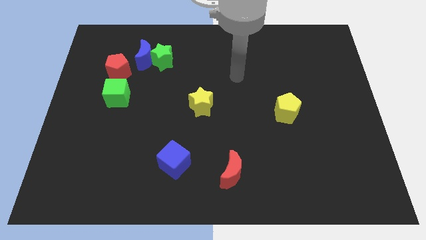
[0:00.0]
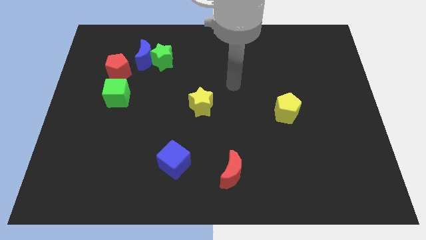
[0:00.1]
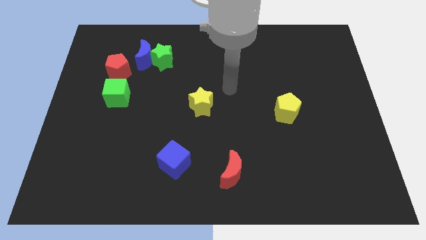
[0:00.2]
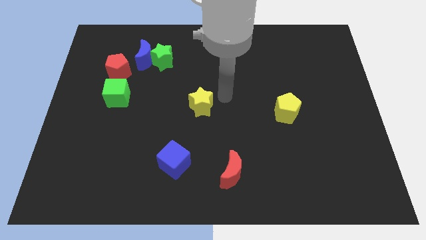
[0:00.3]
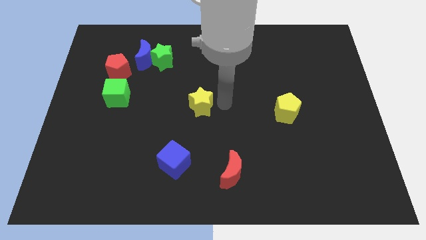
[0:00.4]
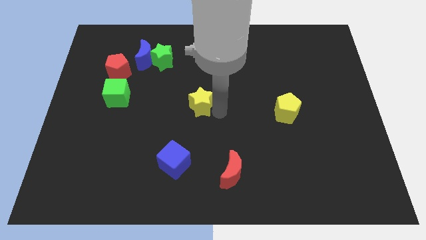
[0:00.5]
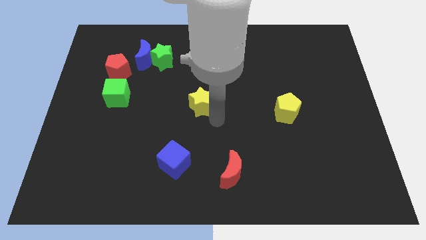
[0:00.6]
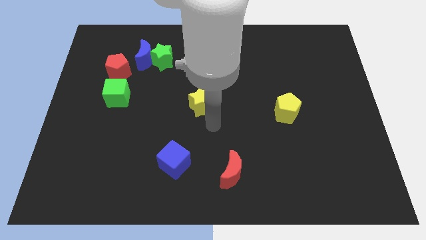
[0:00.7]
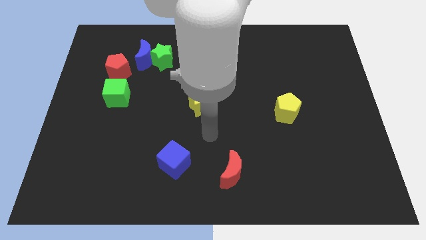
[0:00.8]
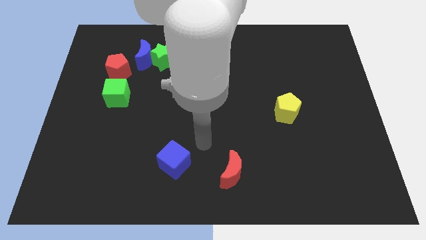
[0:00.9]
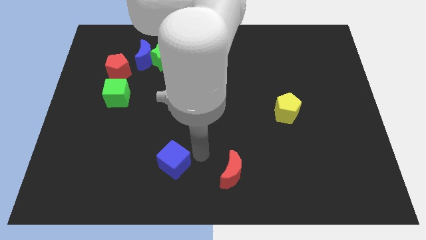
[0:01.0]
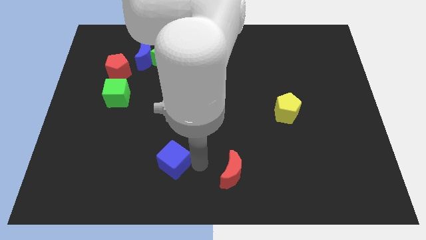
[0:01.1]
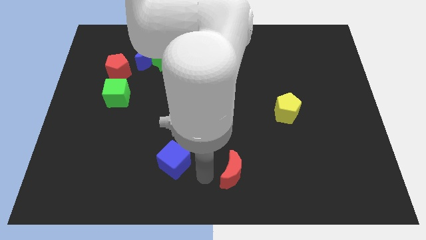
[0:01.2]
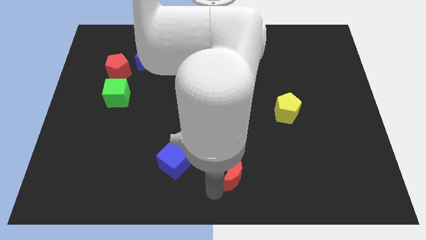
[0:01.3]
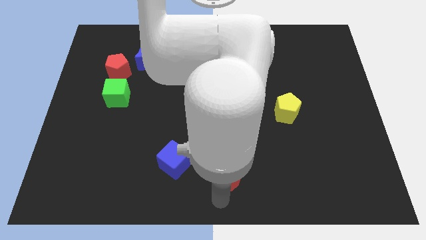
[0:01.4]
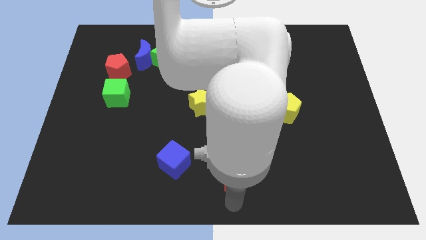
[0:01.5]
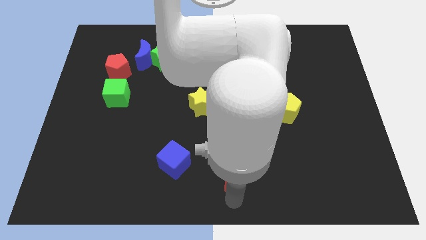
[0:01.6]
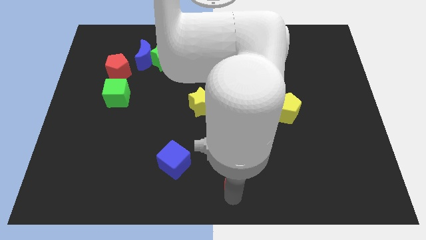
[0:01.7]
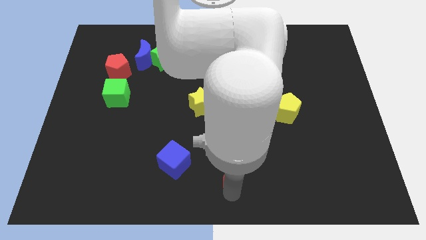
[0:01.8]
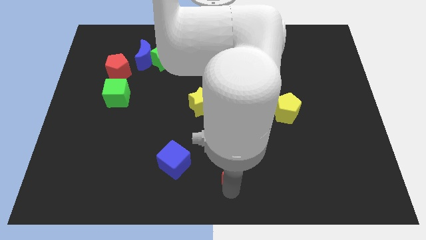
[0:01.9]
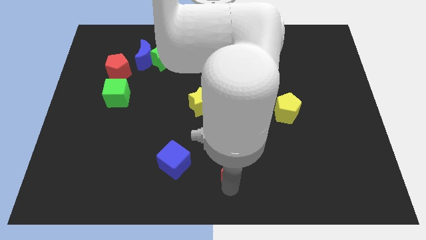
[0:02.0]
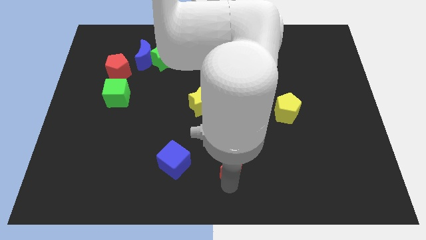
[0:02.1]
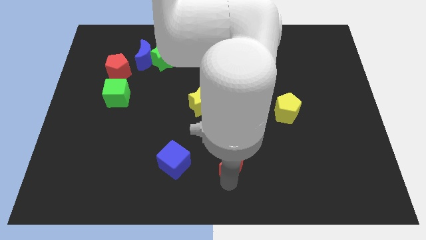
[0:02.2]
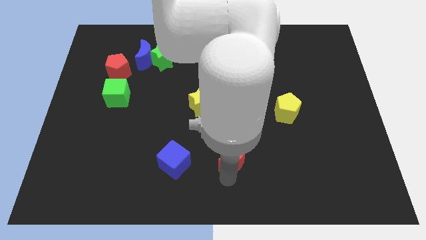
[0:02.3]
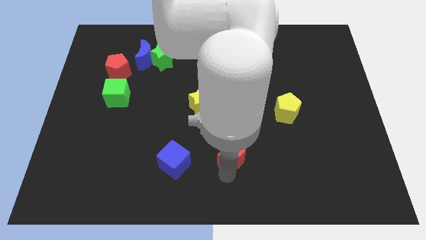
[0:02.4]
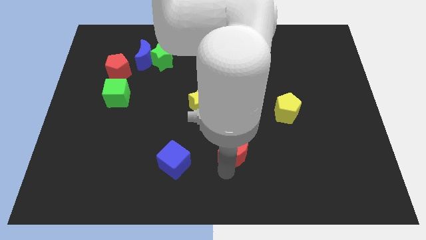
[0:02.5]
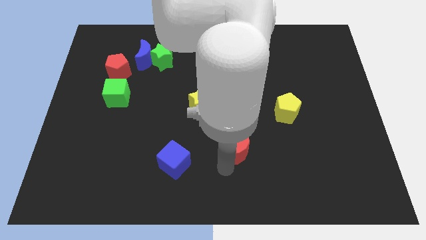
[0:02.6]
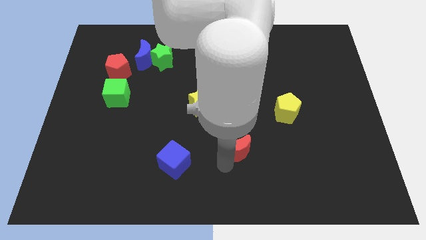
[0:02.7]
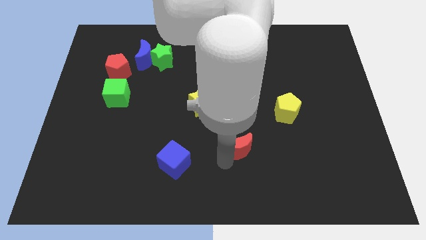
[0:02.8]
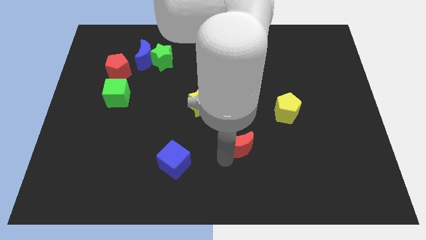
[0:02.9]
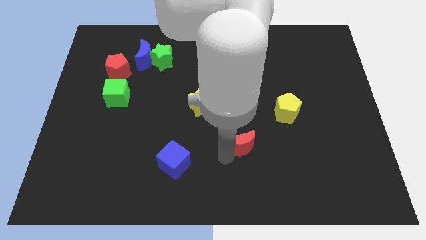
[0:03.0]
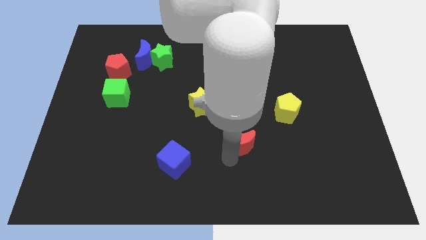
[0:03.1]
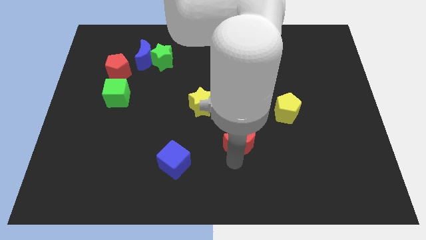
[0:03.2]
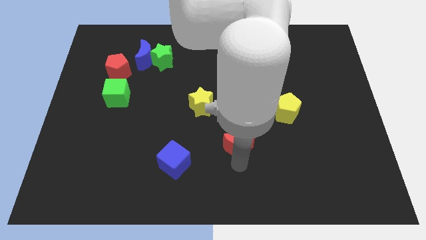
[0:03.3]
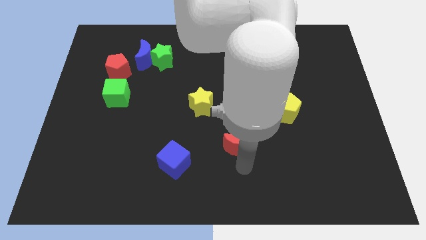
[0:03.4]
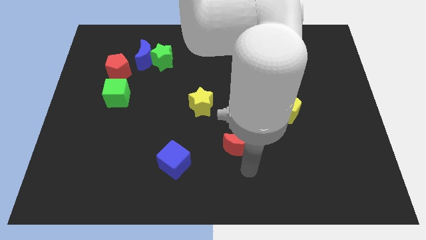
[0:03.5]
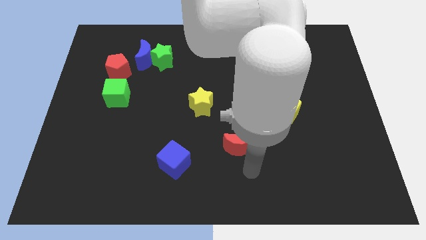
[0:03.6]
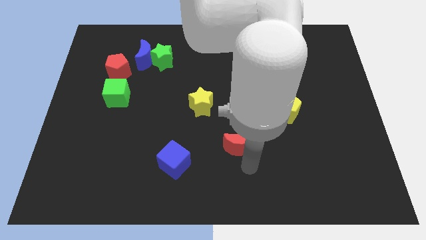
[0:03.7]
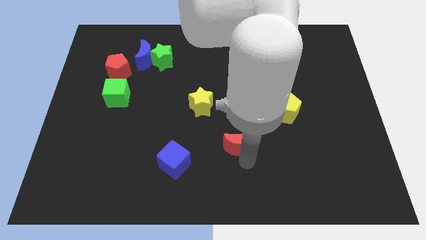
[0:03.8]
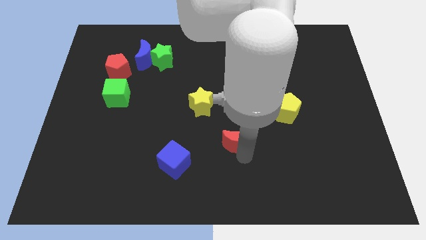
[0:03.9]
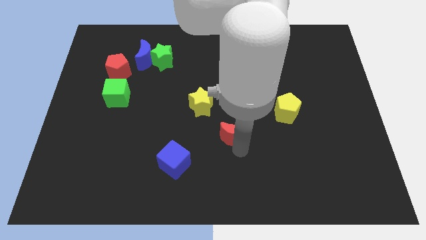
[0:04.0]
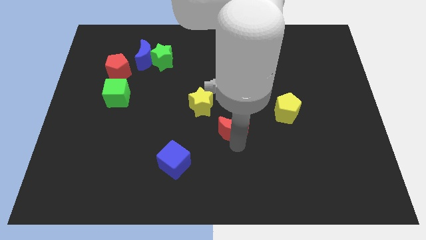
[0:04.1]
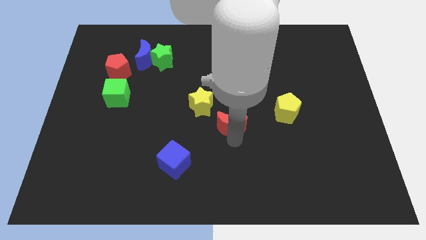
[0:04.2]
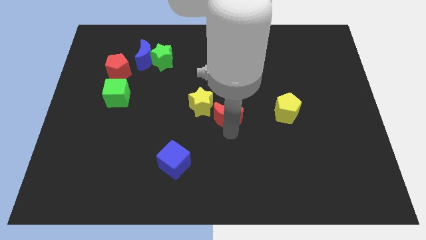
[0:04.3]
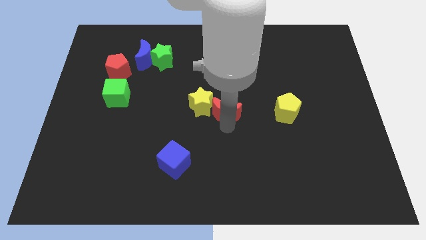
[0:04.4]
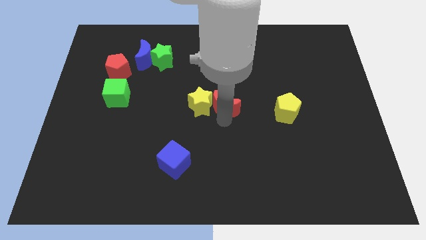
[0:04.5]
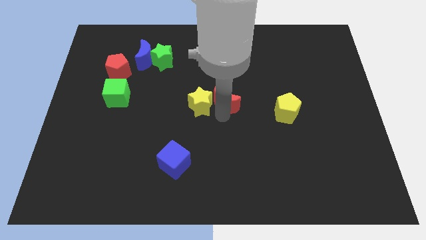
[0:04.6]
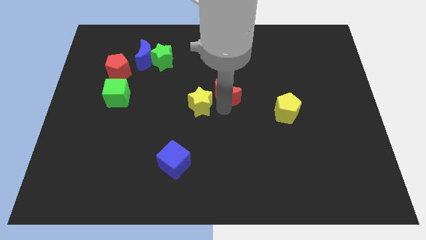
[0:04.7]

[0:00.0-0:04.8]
move the red moon up

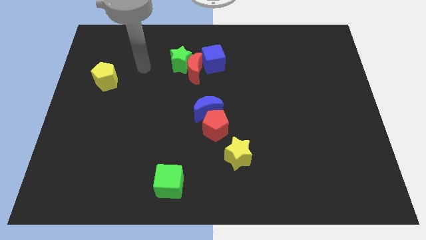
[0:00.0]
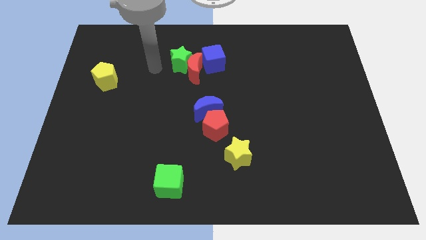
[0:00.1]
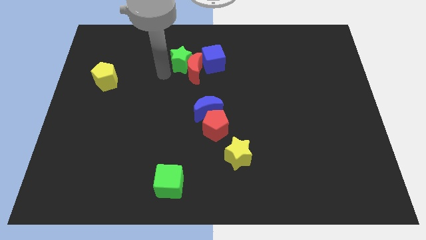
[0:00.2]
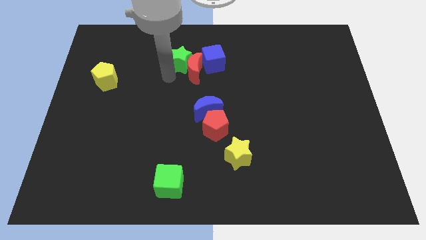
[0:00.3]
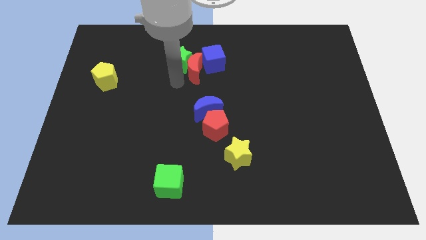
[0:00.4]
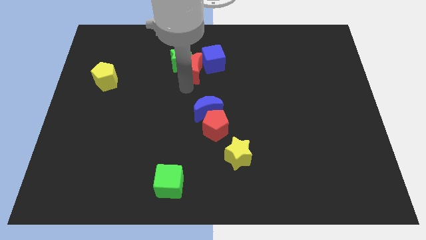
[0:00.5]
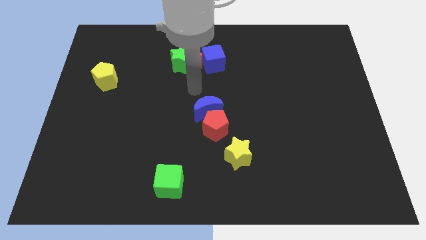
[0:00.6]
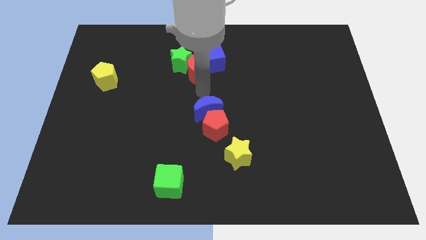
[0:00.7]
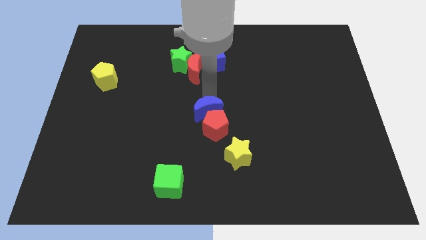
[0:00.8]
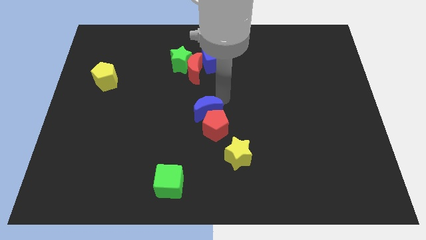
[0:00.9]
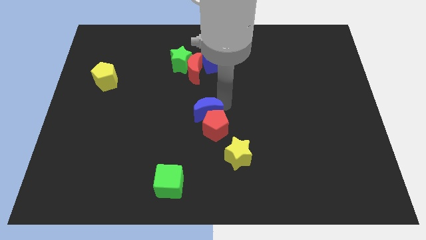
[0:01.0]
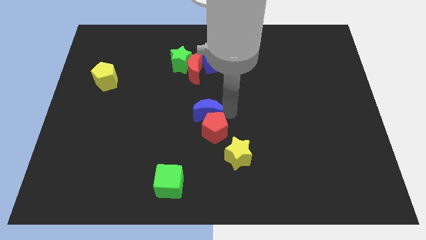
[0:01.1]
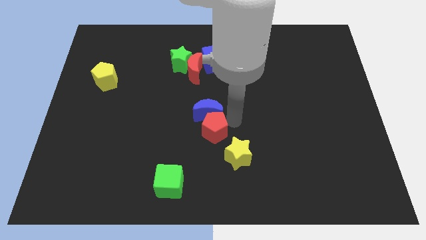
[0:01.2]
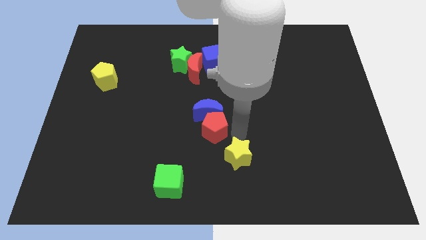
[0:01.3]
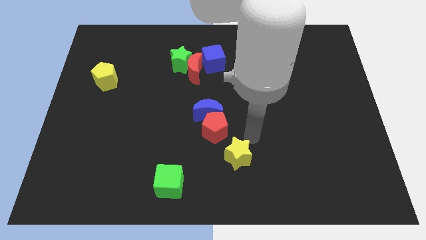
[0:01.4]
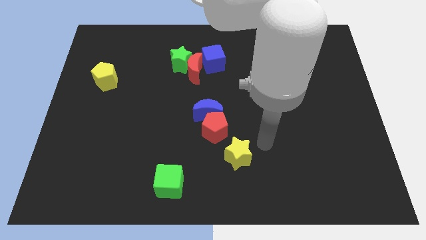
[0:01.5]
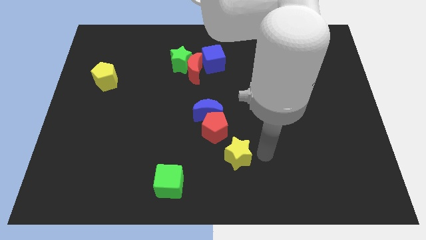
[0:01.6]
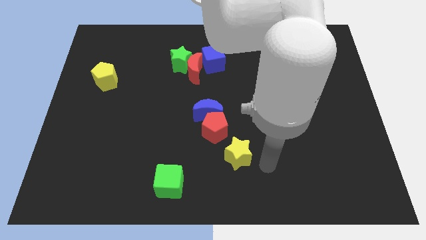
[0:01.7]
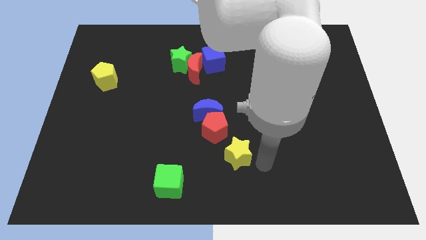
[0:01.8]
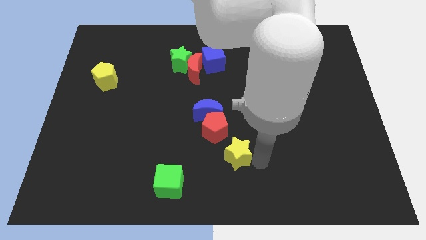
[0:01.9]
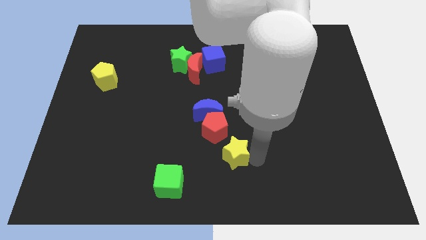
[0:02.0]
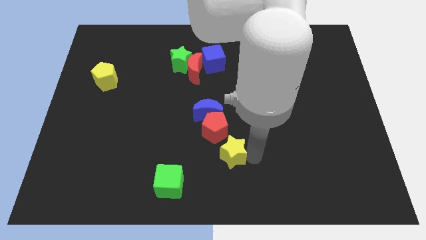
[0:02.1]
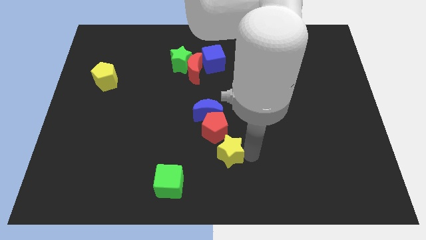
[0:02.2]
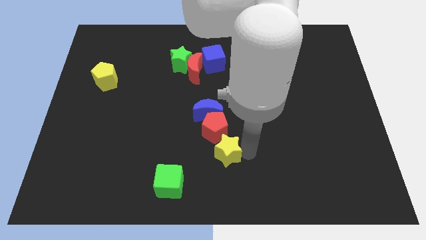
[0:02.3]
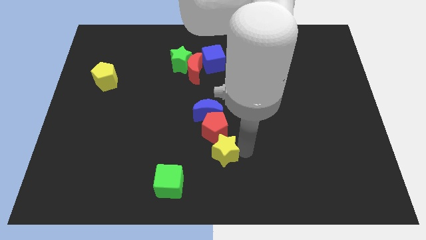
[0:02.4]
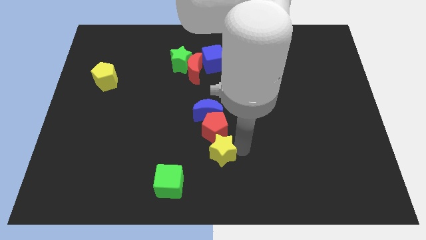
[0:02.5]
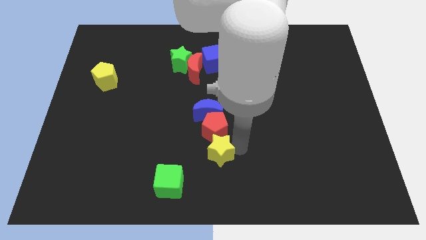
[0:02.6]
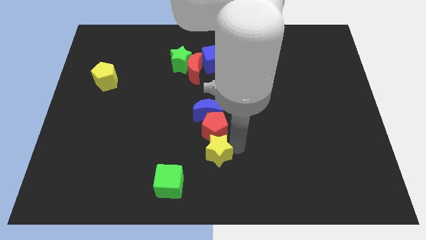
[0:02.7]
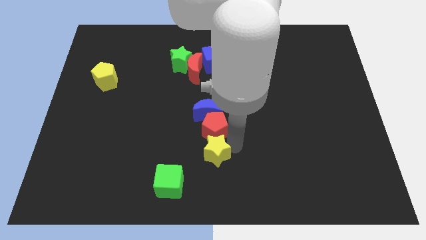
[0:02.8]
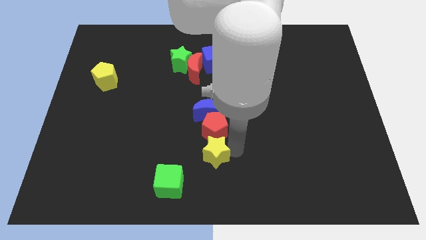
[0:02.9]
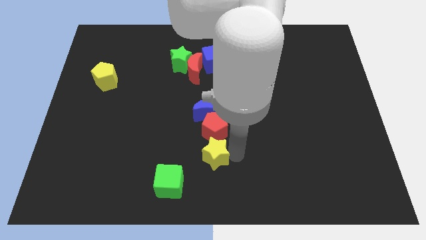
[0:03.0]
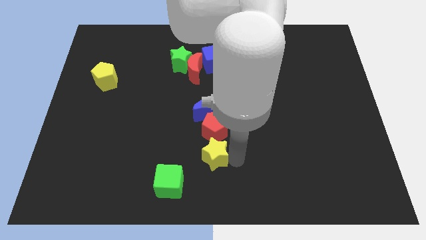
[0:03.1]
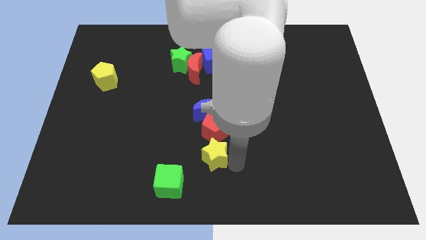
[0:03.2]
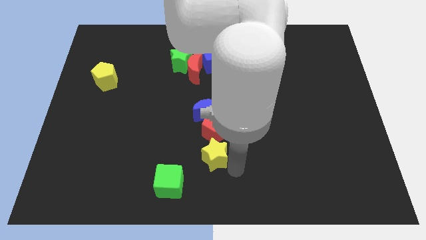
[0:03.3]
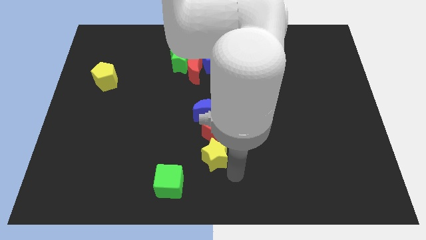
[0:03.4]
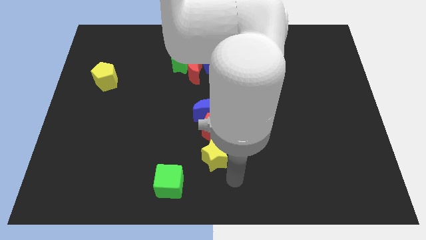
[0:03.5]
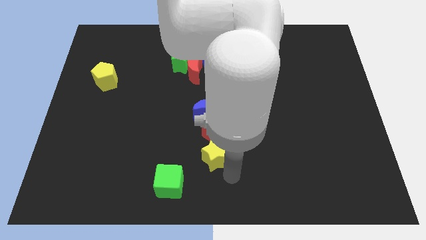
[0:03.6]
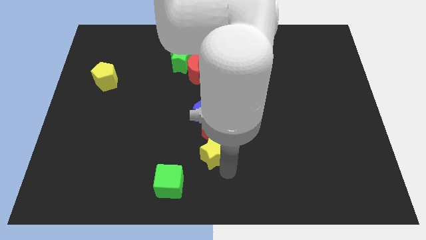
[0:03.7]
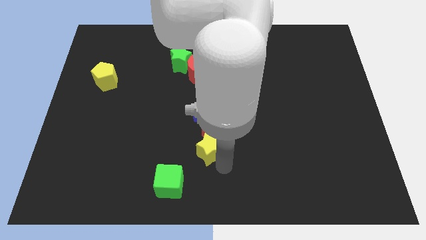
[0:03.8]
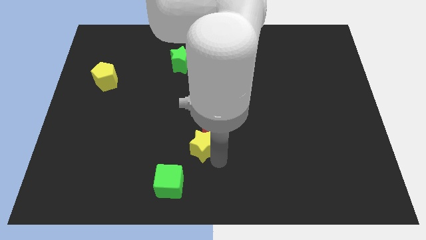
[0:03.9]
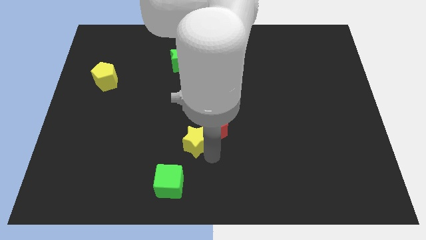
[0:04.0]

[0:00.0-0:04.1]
push the yellow star up and then left a little
